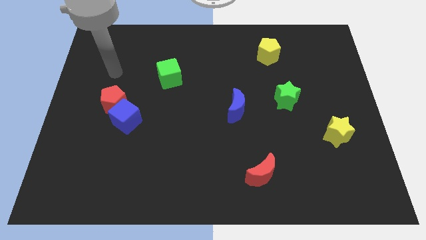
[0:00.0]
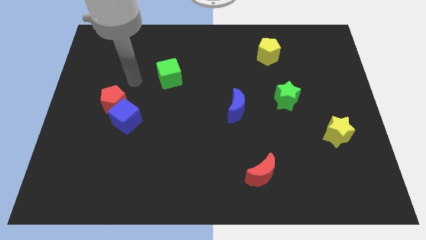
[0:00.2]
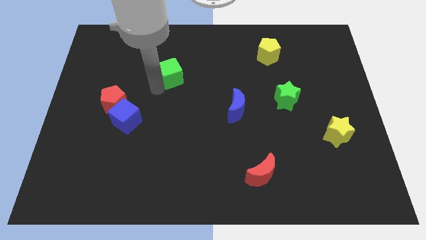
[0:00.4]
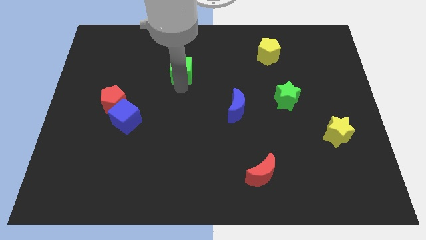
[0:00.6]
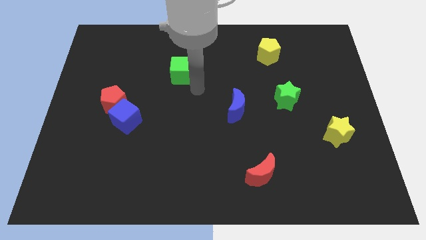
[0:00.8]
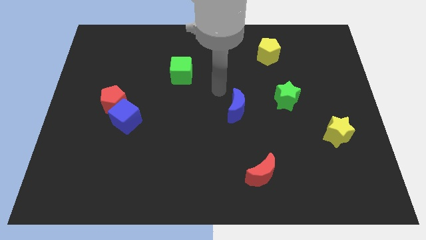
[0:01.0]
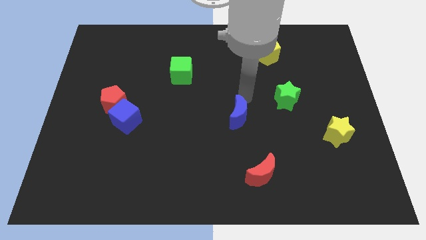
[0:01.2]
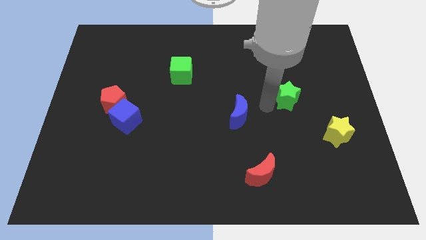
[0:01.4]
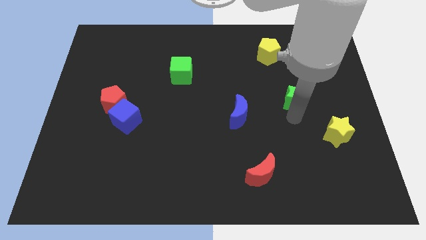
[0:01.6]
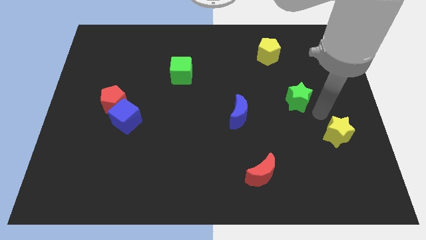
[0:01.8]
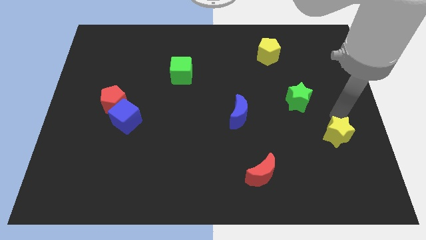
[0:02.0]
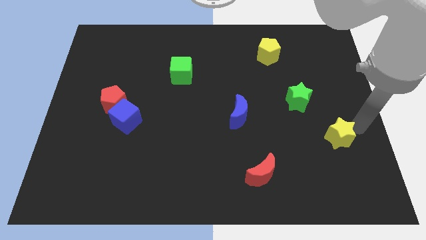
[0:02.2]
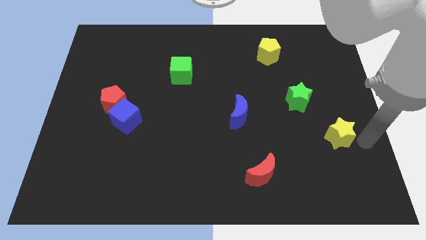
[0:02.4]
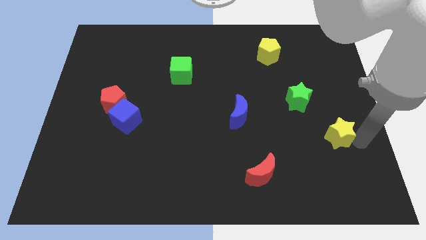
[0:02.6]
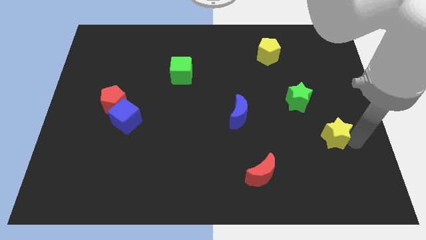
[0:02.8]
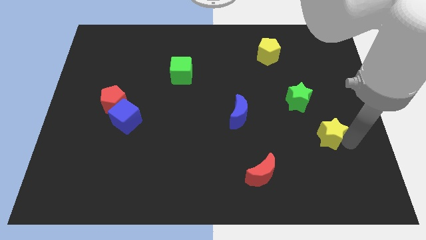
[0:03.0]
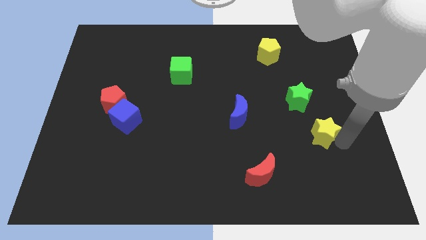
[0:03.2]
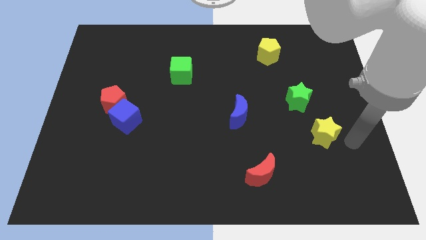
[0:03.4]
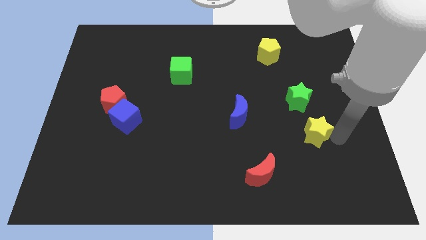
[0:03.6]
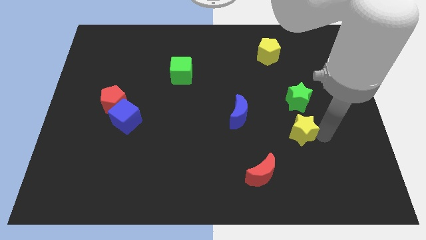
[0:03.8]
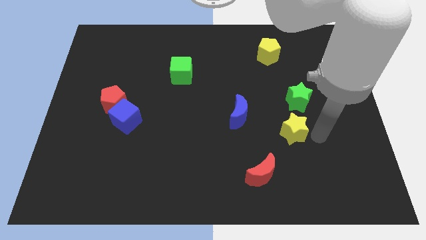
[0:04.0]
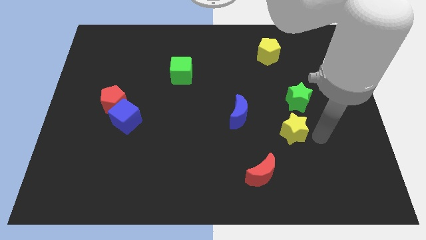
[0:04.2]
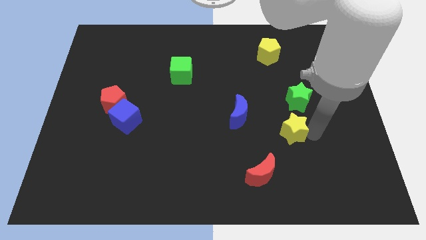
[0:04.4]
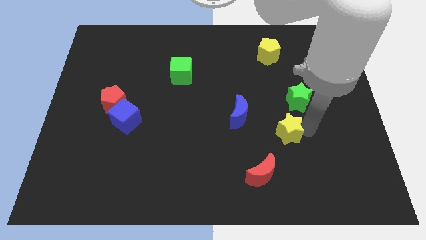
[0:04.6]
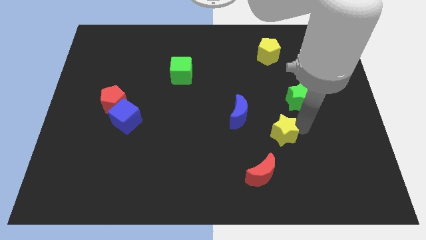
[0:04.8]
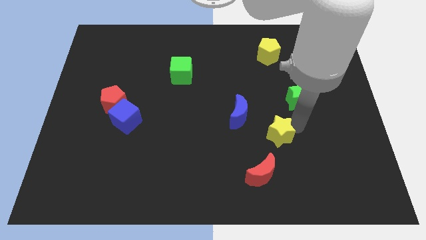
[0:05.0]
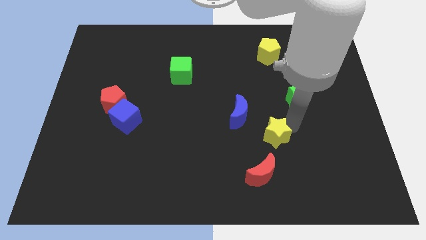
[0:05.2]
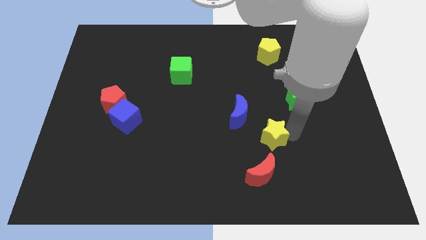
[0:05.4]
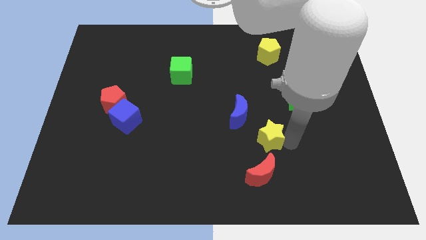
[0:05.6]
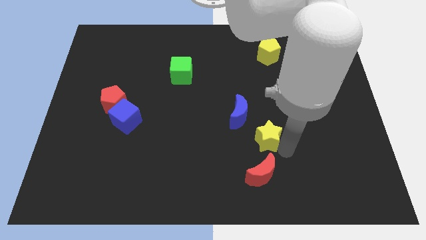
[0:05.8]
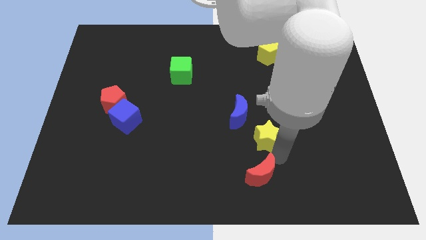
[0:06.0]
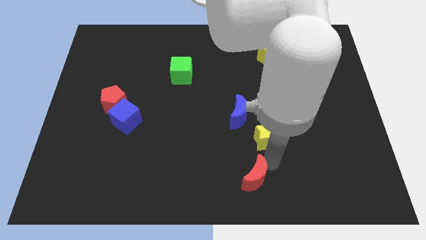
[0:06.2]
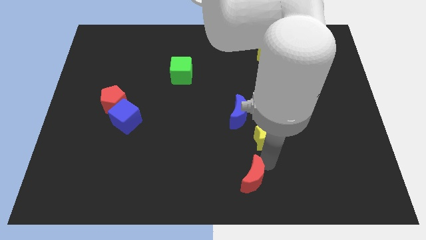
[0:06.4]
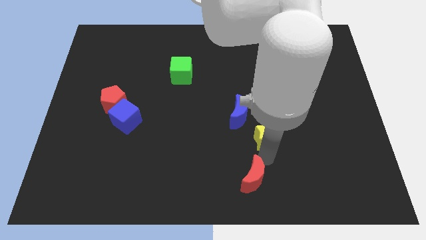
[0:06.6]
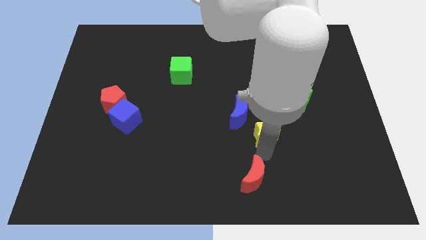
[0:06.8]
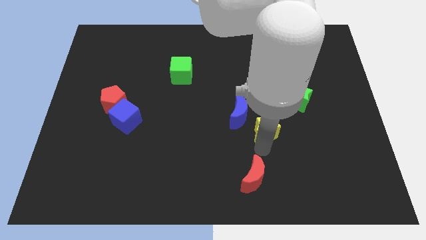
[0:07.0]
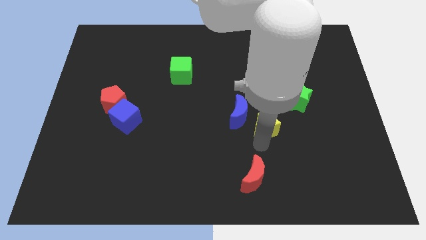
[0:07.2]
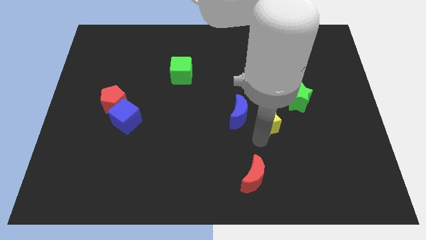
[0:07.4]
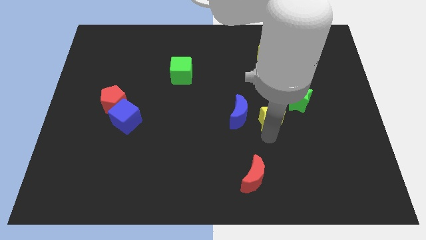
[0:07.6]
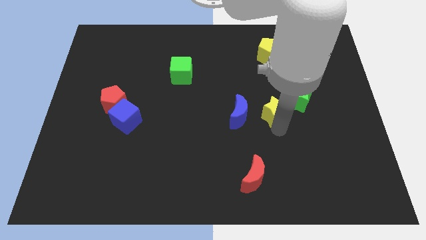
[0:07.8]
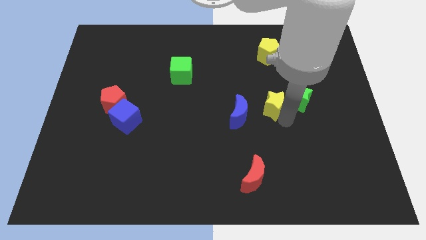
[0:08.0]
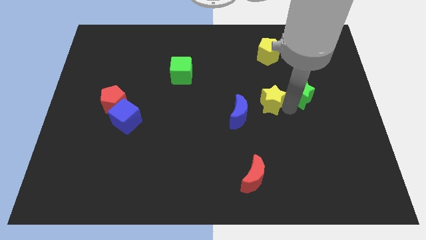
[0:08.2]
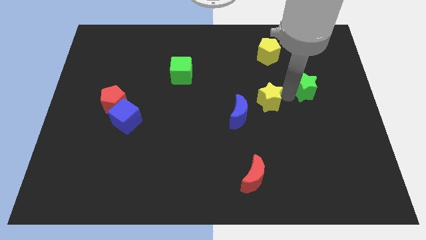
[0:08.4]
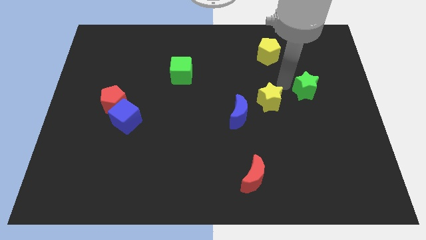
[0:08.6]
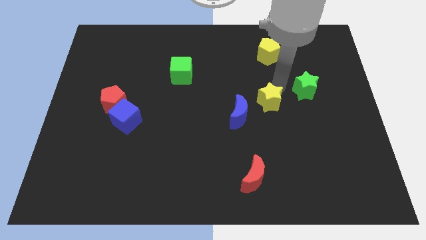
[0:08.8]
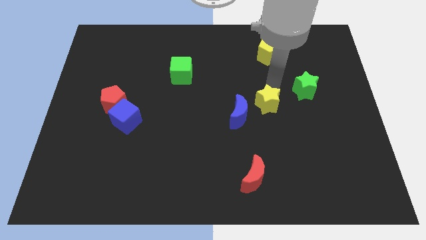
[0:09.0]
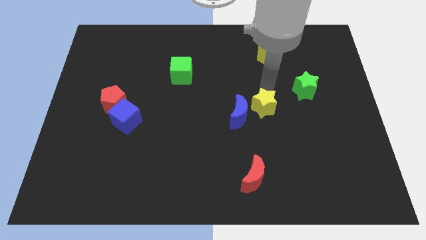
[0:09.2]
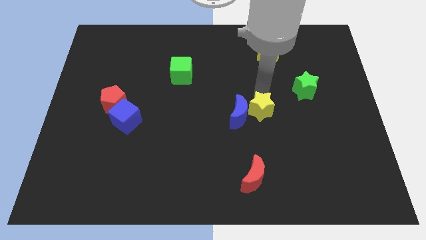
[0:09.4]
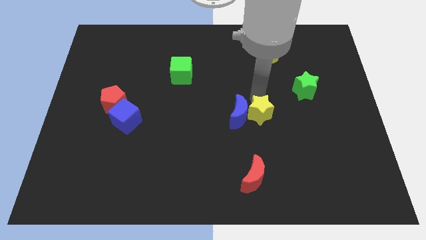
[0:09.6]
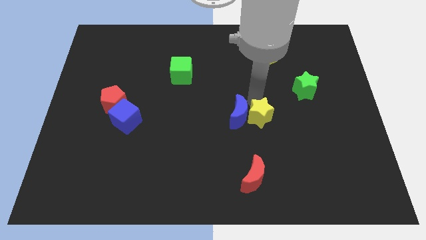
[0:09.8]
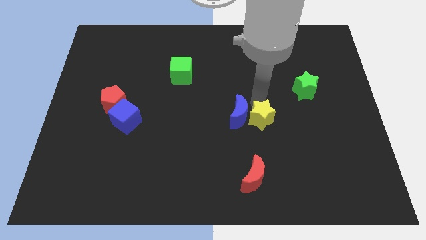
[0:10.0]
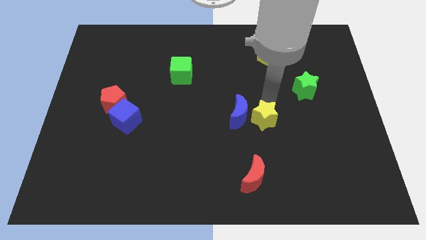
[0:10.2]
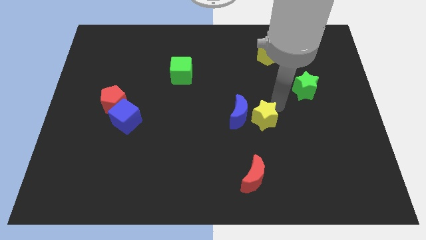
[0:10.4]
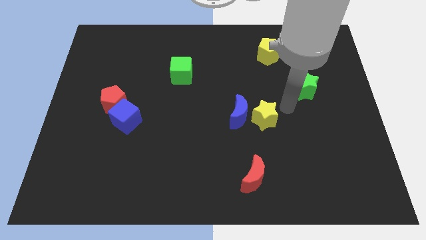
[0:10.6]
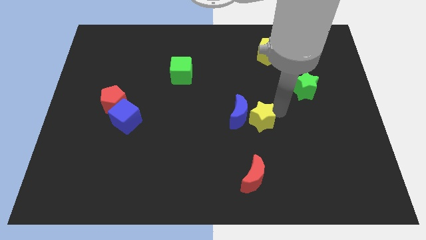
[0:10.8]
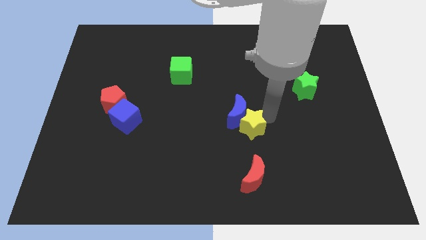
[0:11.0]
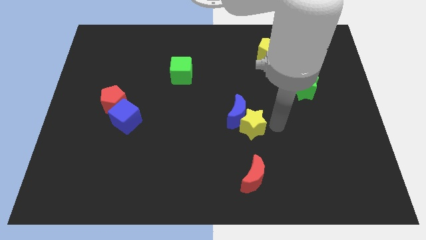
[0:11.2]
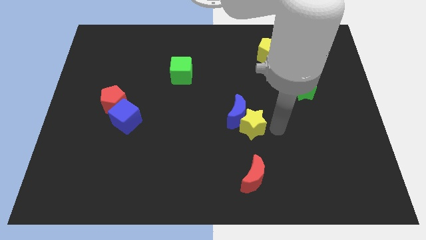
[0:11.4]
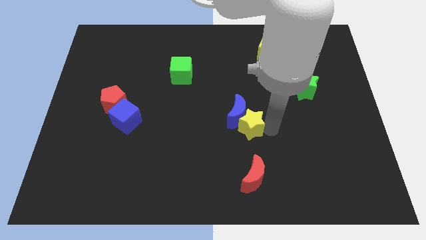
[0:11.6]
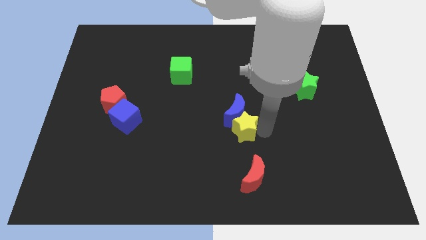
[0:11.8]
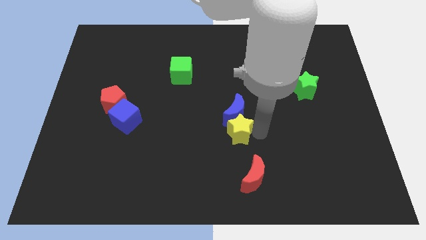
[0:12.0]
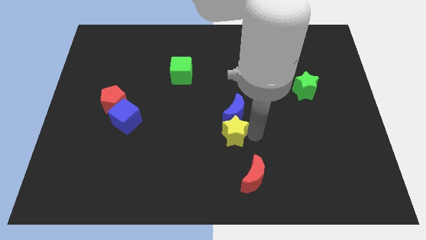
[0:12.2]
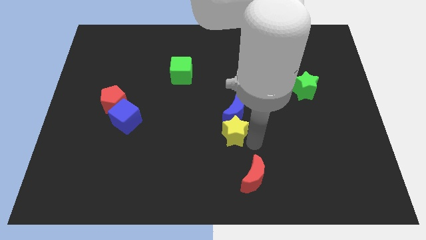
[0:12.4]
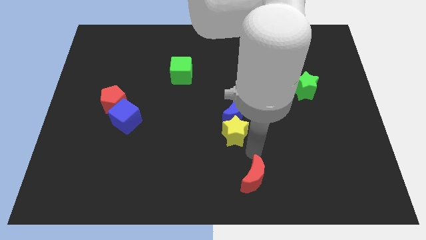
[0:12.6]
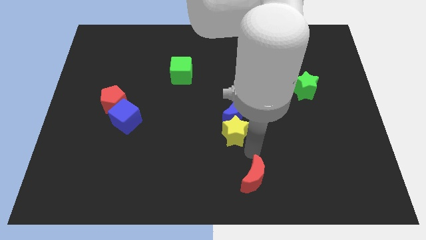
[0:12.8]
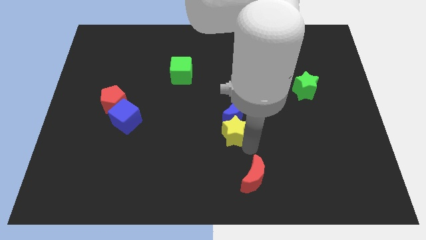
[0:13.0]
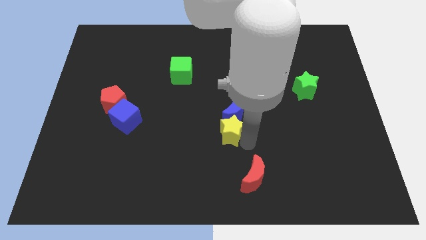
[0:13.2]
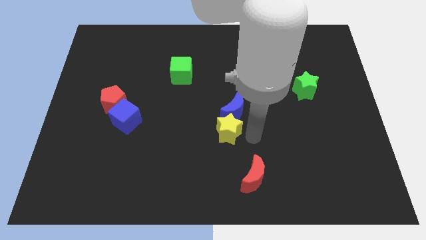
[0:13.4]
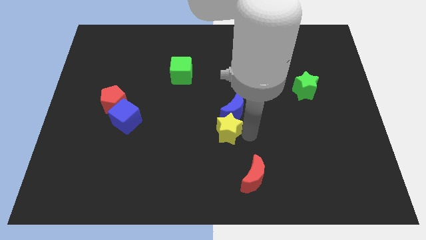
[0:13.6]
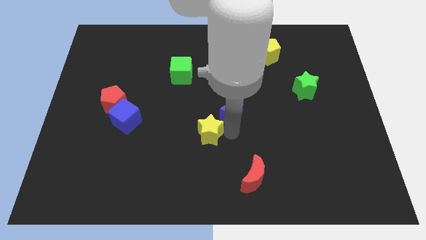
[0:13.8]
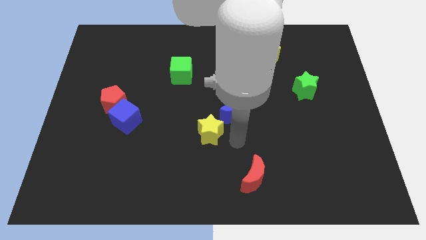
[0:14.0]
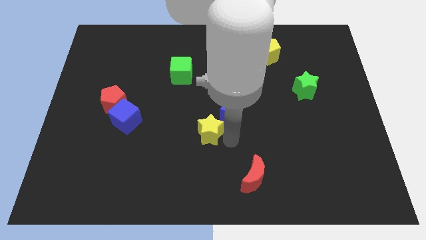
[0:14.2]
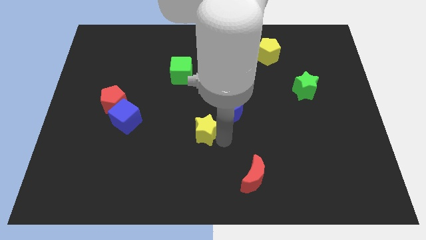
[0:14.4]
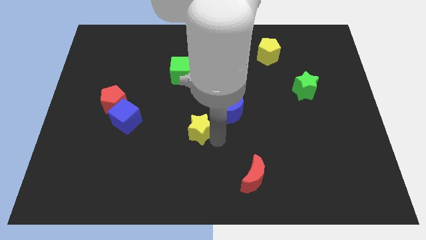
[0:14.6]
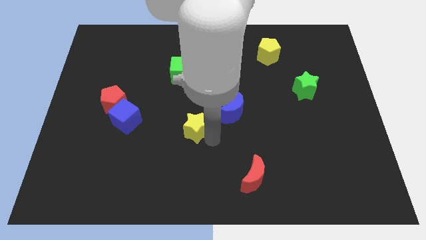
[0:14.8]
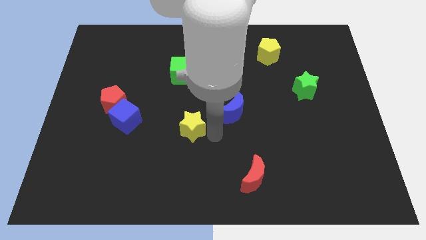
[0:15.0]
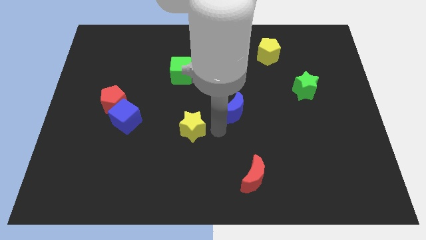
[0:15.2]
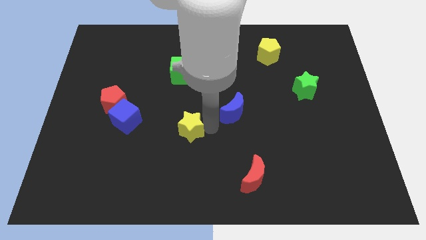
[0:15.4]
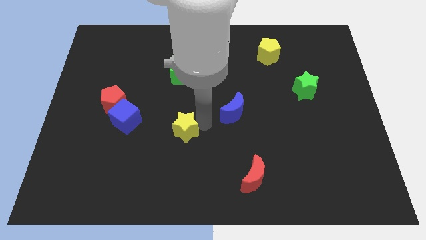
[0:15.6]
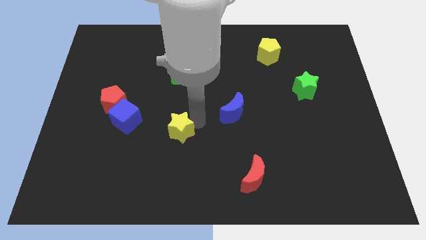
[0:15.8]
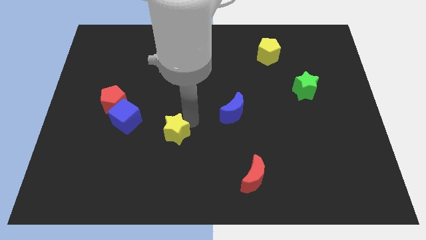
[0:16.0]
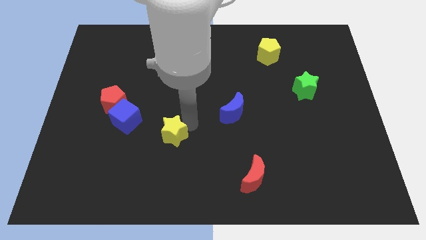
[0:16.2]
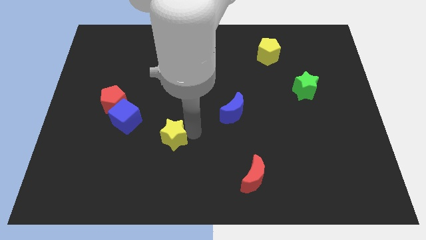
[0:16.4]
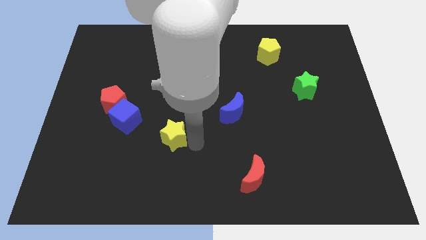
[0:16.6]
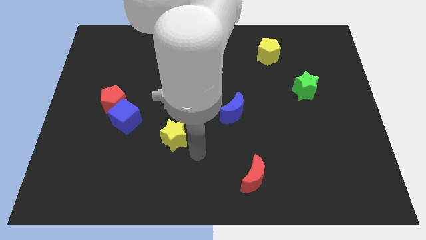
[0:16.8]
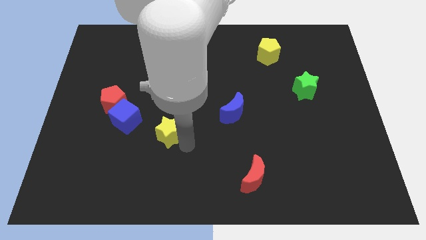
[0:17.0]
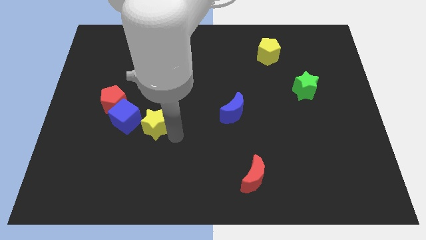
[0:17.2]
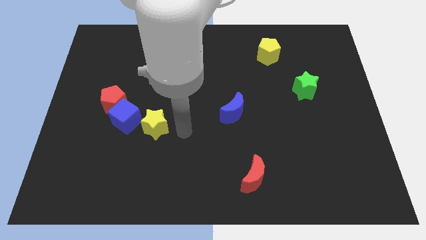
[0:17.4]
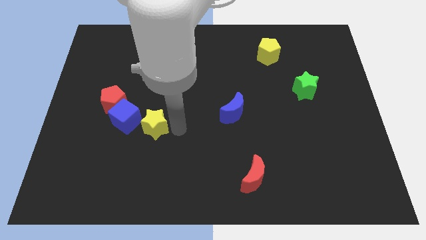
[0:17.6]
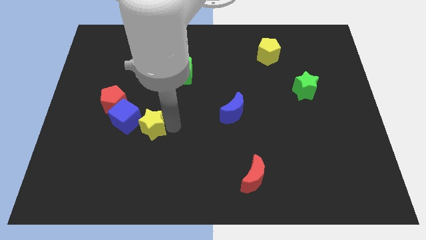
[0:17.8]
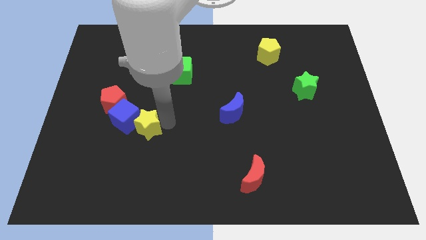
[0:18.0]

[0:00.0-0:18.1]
slide the yellow star next to the blue cube
